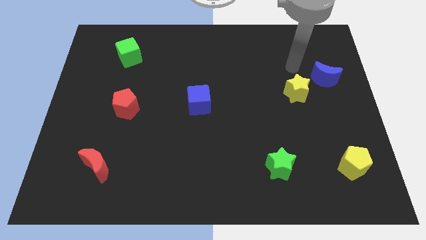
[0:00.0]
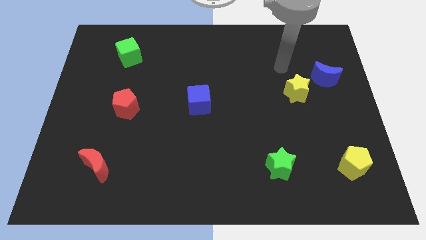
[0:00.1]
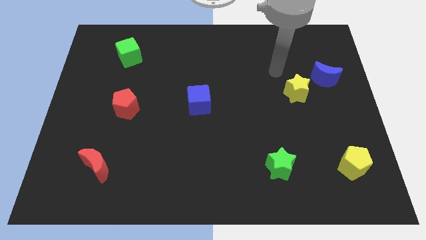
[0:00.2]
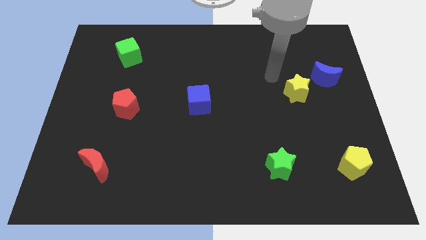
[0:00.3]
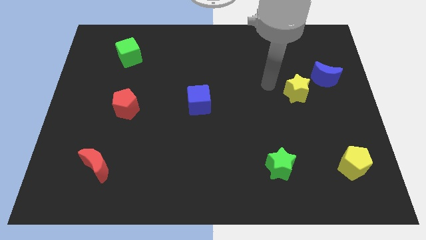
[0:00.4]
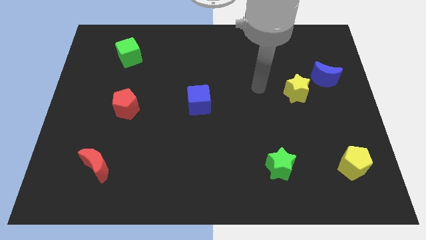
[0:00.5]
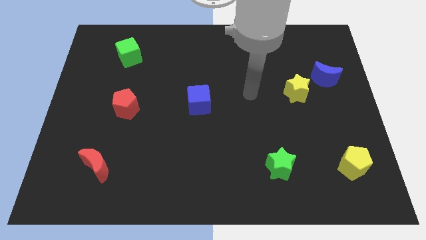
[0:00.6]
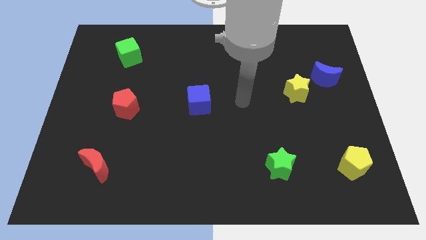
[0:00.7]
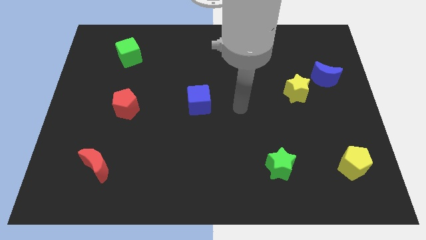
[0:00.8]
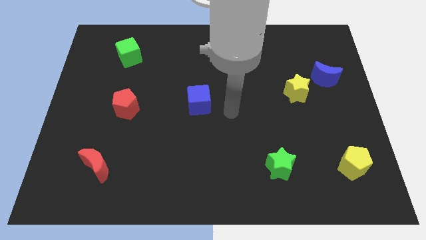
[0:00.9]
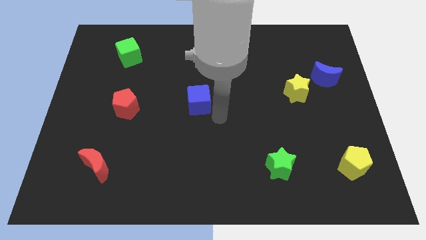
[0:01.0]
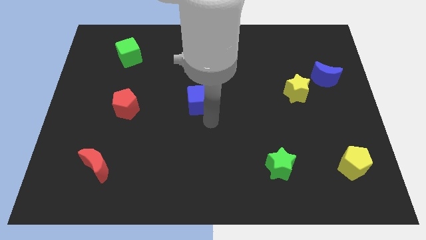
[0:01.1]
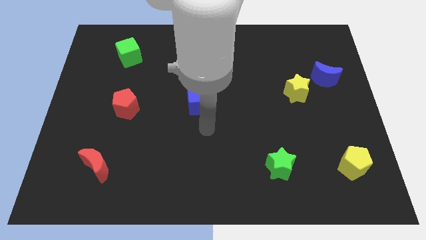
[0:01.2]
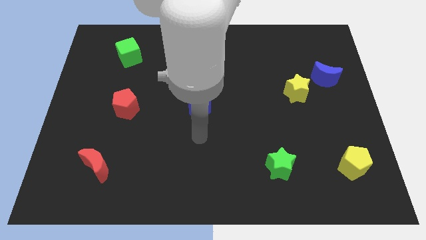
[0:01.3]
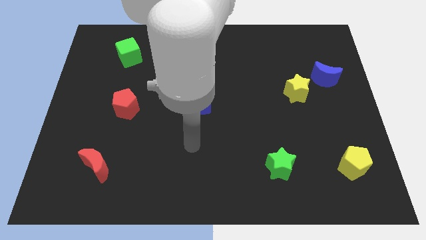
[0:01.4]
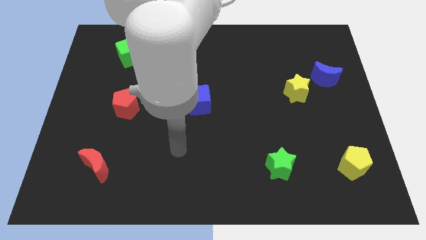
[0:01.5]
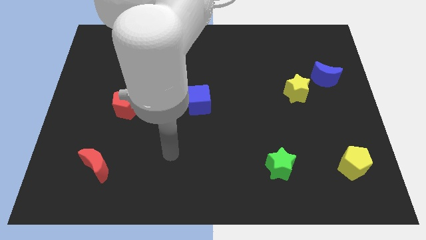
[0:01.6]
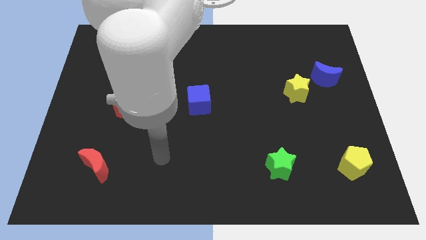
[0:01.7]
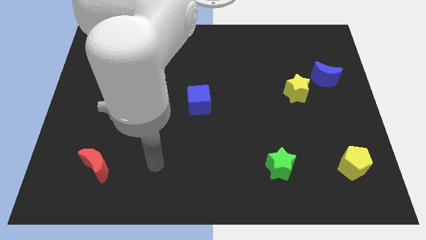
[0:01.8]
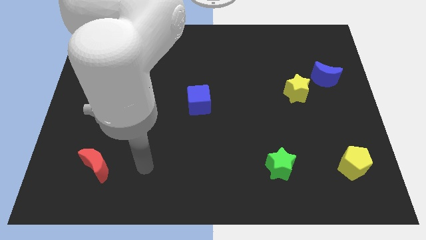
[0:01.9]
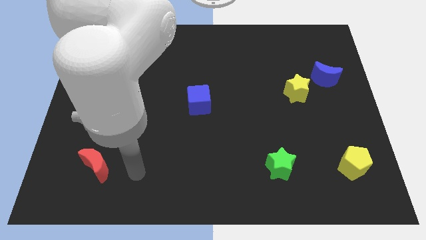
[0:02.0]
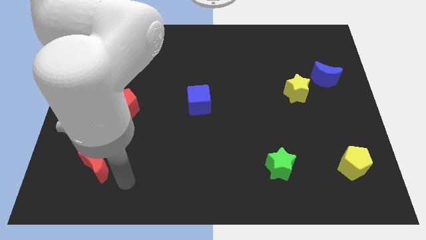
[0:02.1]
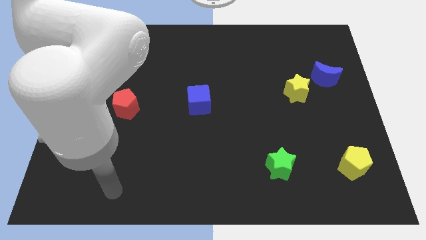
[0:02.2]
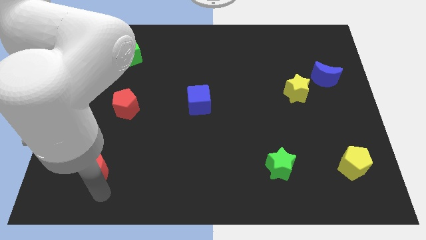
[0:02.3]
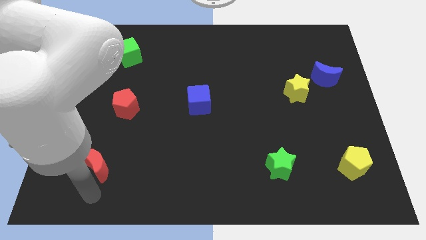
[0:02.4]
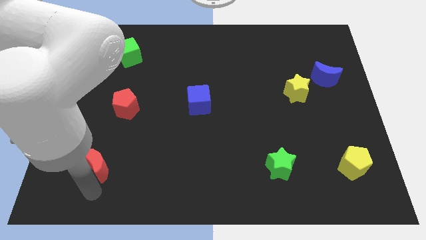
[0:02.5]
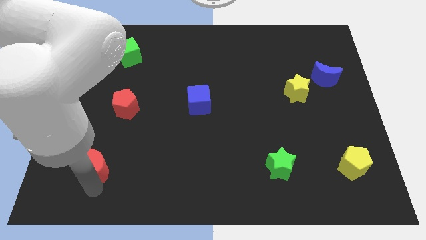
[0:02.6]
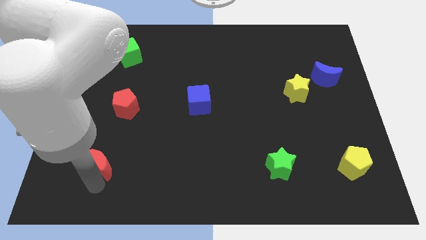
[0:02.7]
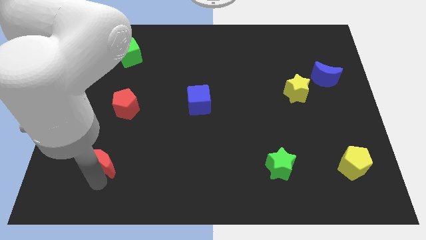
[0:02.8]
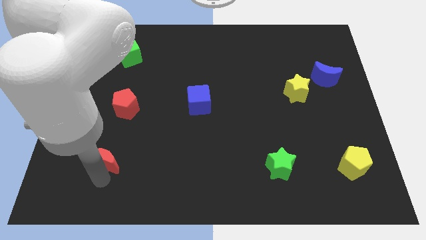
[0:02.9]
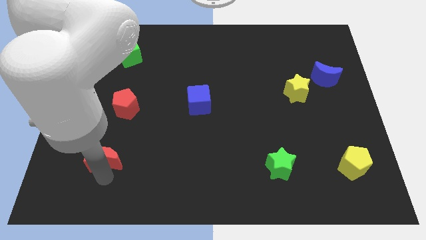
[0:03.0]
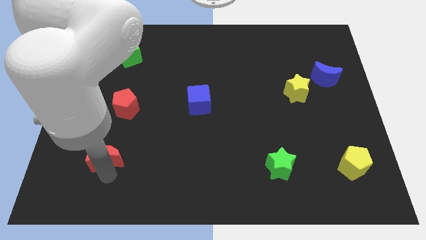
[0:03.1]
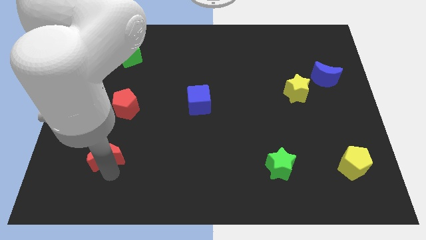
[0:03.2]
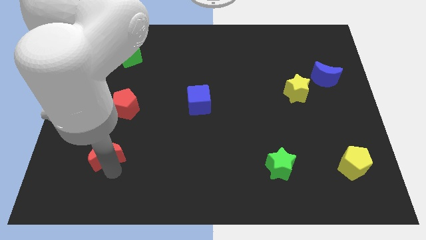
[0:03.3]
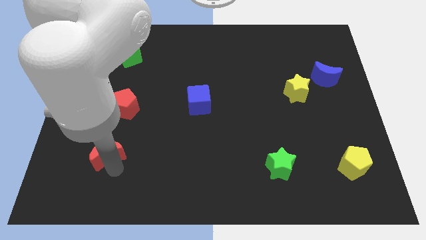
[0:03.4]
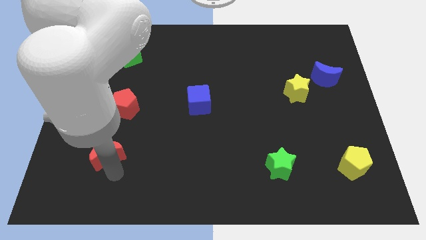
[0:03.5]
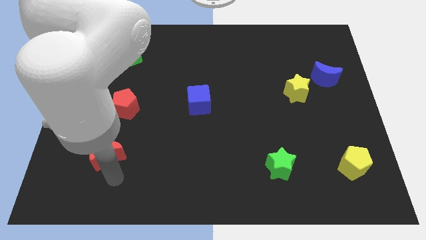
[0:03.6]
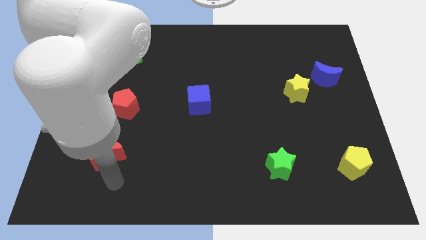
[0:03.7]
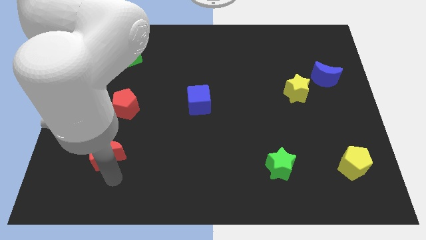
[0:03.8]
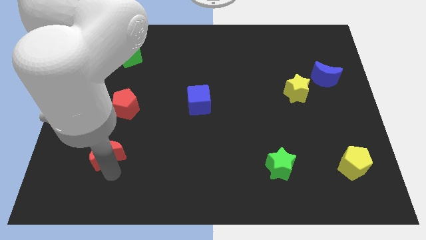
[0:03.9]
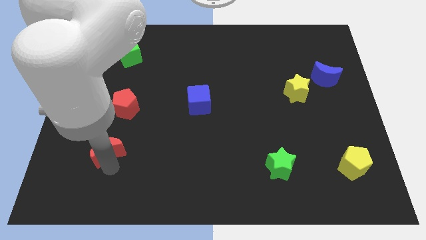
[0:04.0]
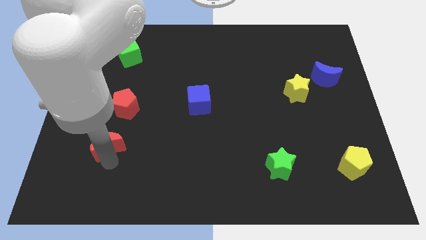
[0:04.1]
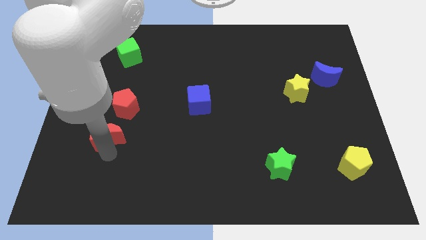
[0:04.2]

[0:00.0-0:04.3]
slide the red moon somewhat upwards

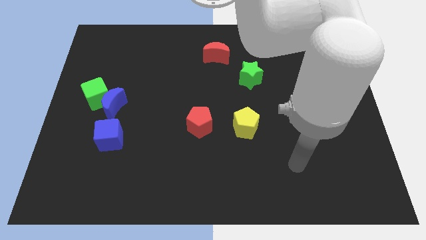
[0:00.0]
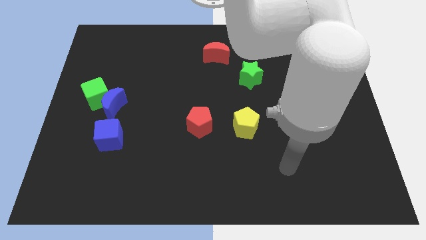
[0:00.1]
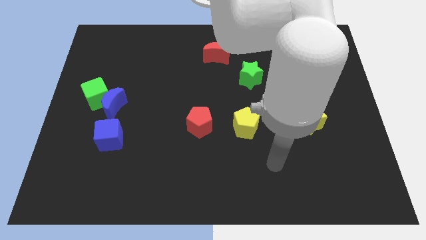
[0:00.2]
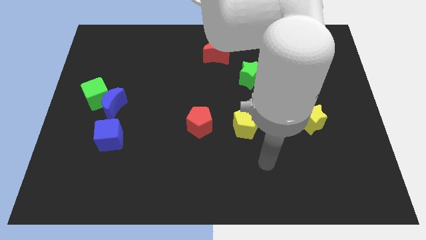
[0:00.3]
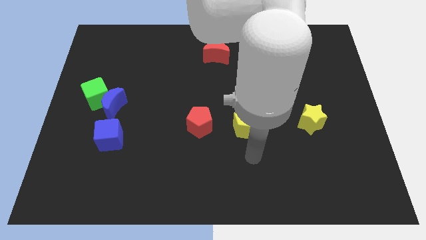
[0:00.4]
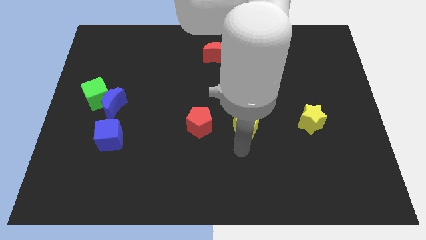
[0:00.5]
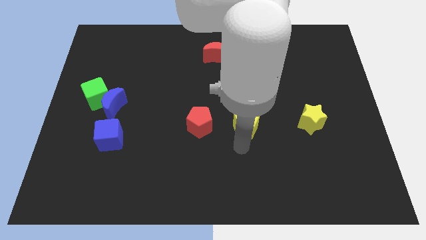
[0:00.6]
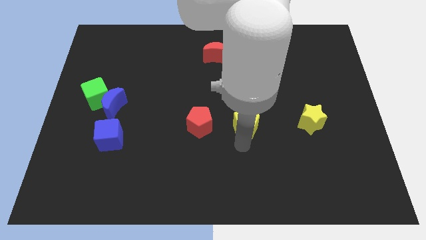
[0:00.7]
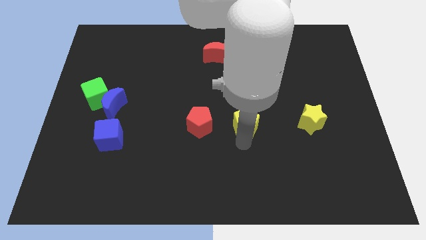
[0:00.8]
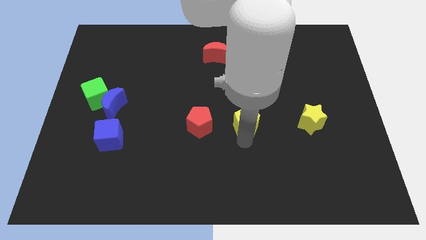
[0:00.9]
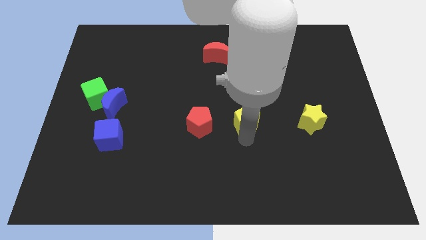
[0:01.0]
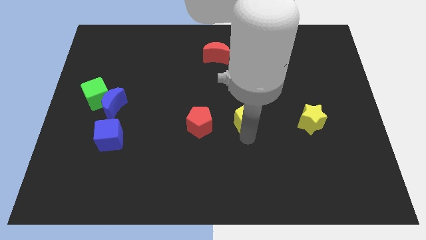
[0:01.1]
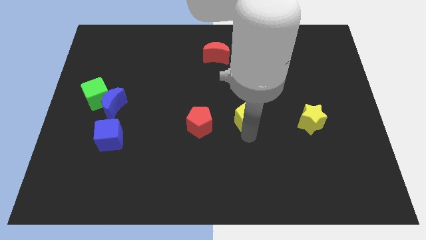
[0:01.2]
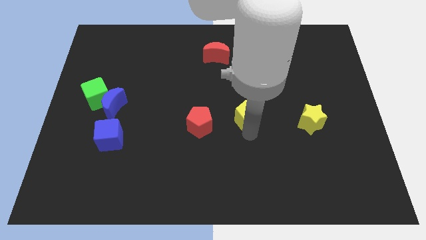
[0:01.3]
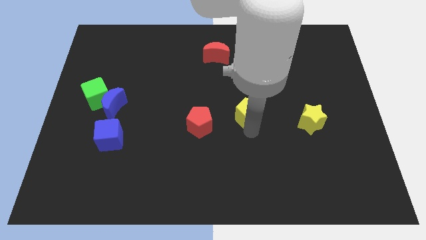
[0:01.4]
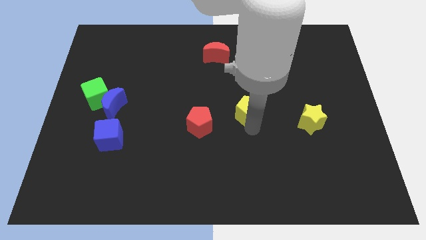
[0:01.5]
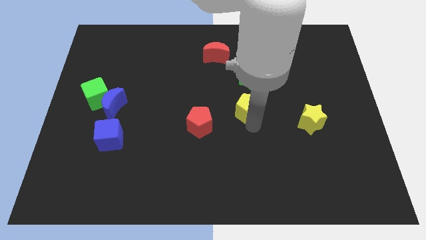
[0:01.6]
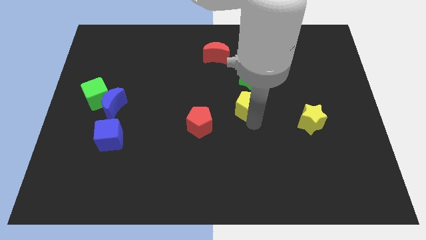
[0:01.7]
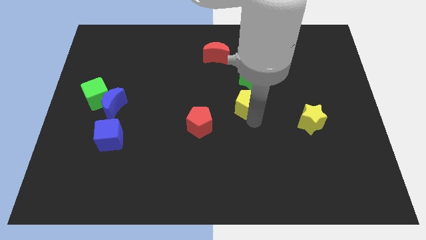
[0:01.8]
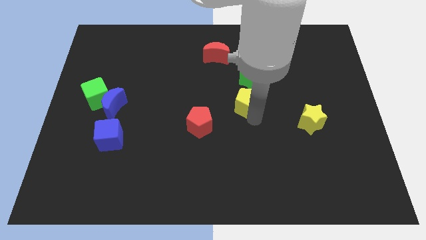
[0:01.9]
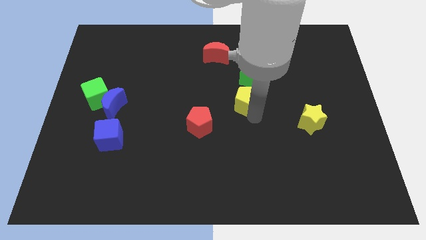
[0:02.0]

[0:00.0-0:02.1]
slide the yellow pentagon a little up

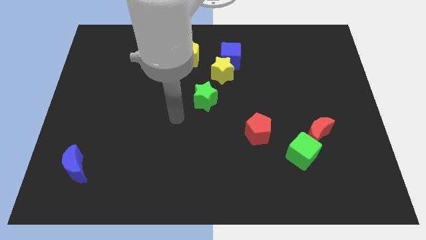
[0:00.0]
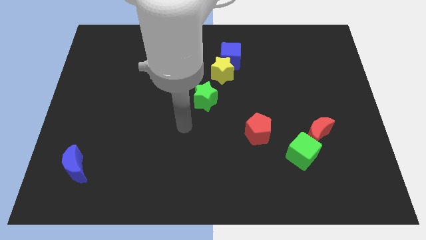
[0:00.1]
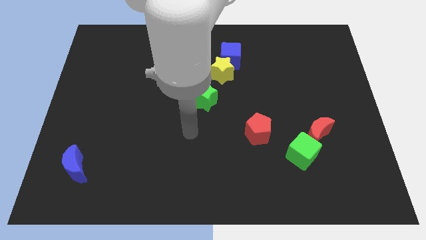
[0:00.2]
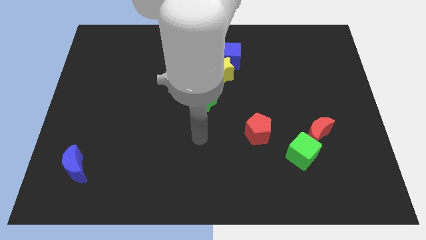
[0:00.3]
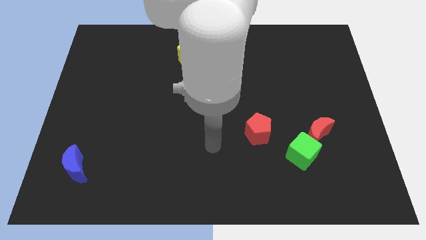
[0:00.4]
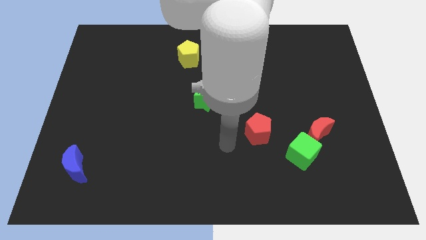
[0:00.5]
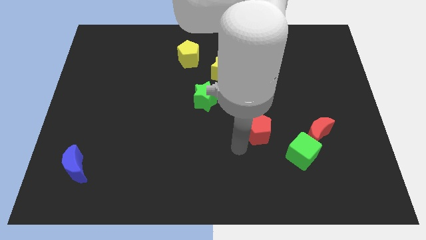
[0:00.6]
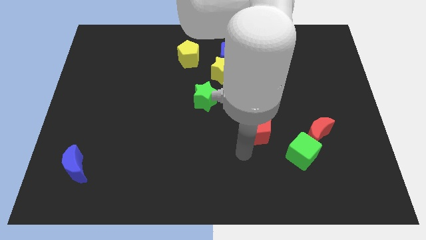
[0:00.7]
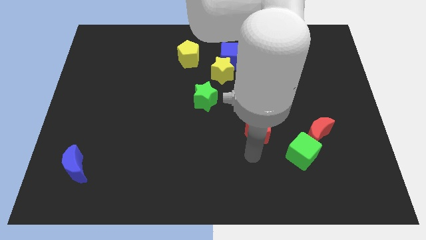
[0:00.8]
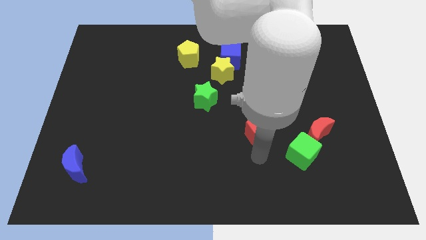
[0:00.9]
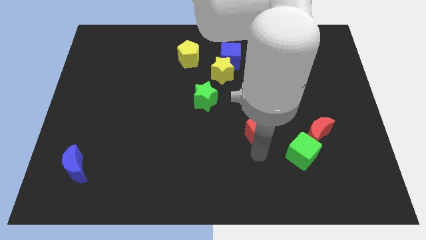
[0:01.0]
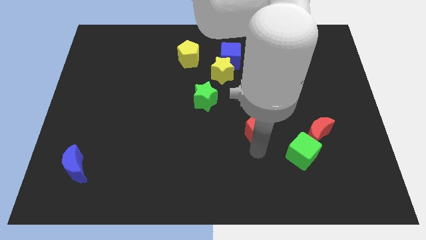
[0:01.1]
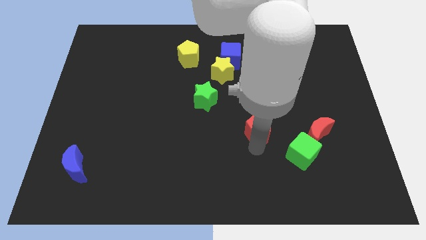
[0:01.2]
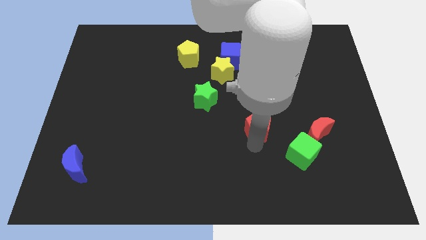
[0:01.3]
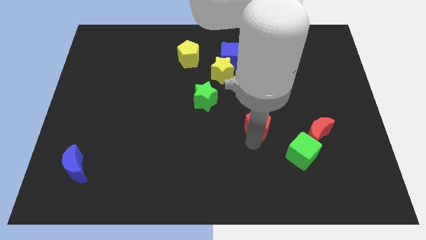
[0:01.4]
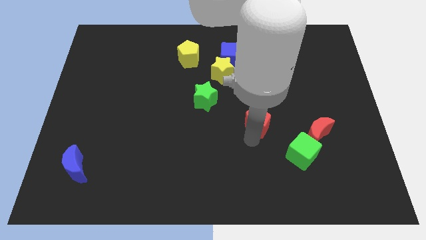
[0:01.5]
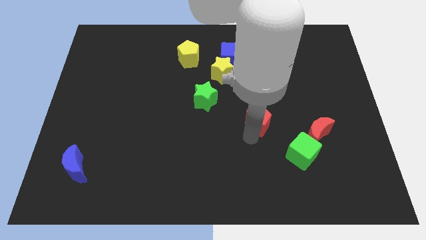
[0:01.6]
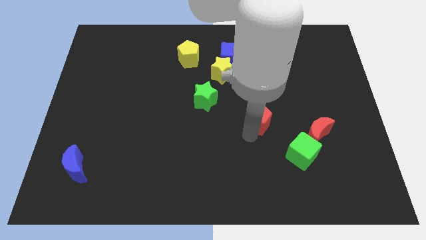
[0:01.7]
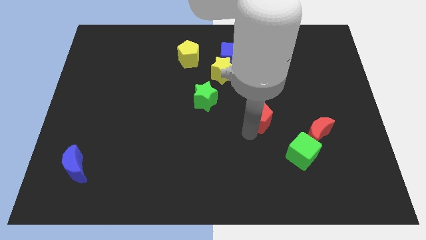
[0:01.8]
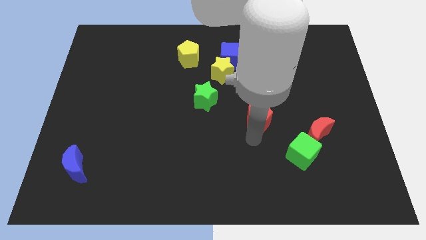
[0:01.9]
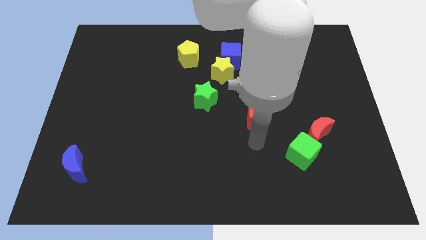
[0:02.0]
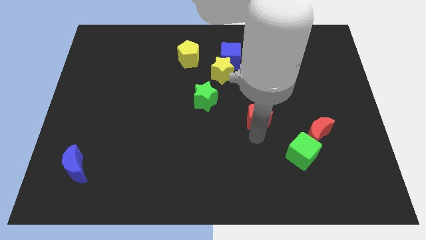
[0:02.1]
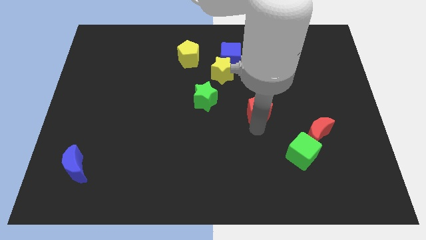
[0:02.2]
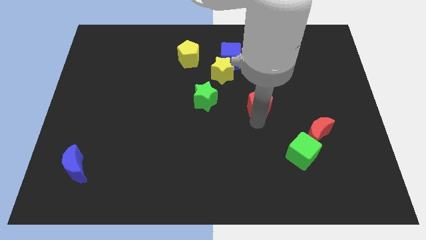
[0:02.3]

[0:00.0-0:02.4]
slide the red pentagon upwards a bit
